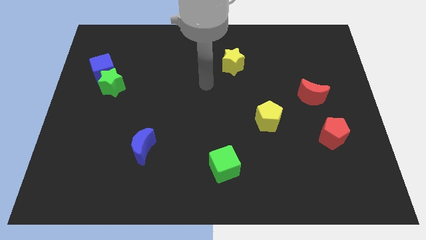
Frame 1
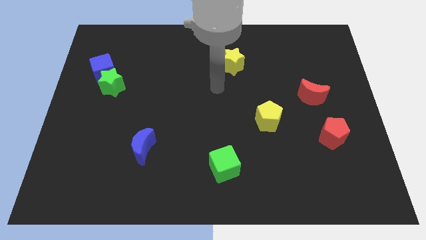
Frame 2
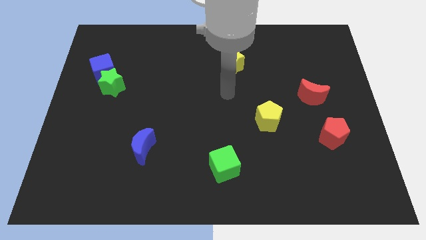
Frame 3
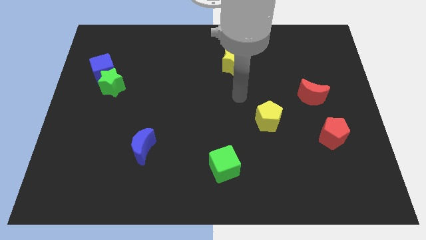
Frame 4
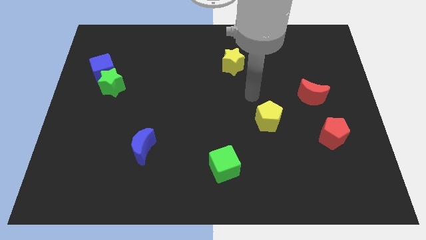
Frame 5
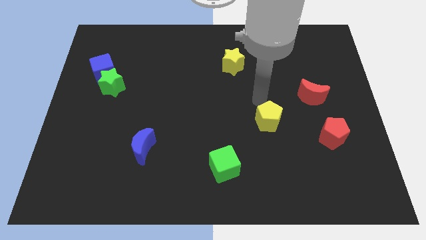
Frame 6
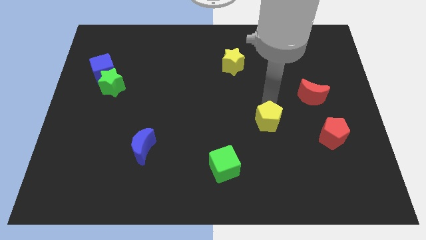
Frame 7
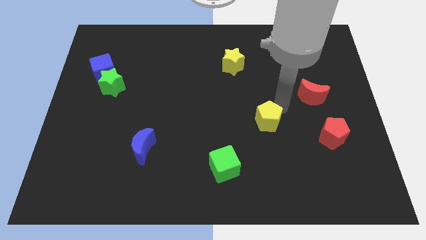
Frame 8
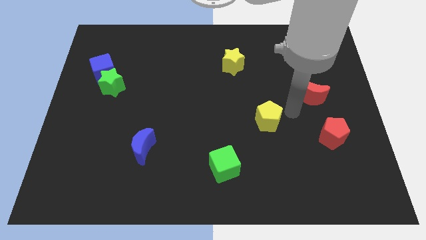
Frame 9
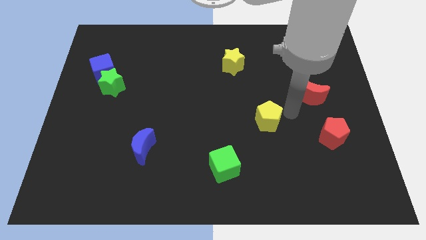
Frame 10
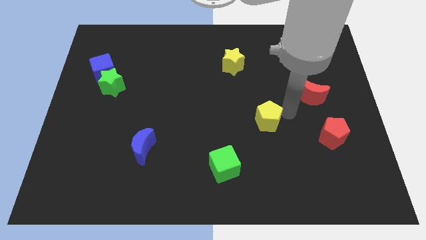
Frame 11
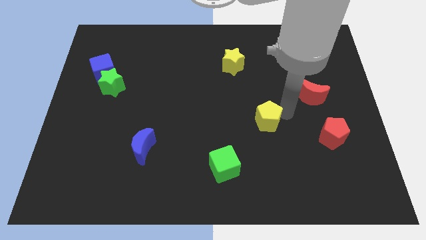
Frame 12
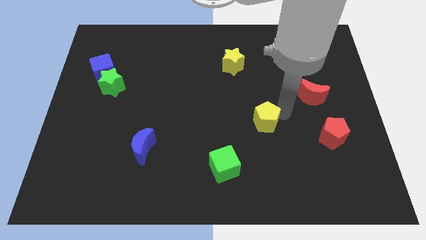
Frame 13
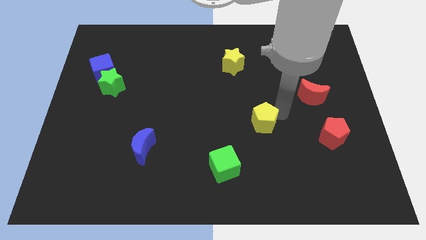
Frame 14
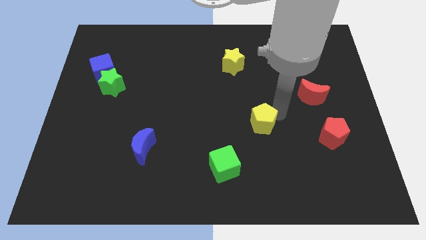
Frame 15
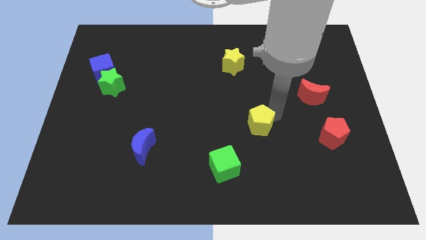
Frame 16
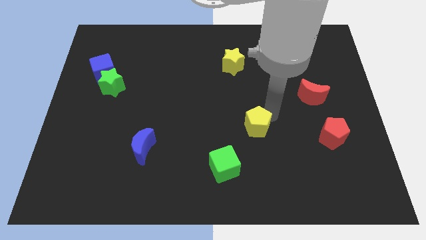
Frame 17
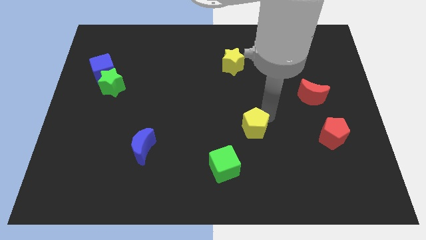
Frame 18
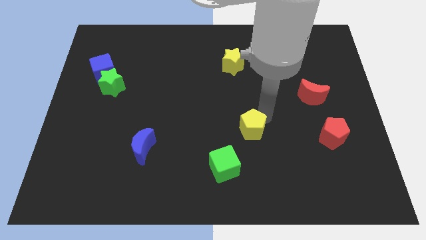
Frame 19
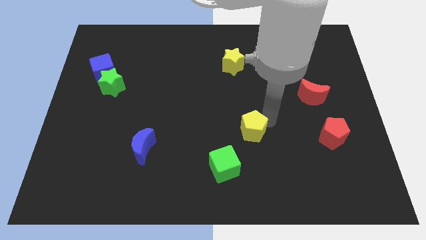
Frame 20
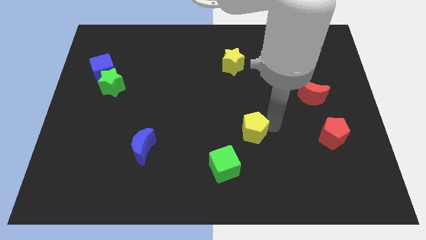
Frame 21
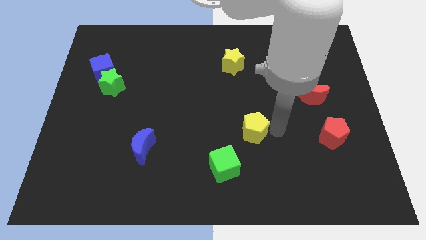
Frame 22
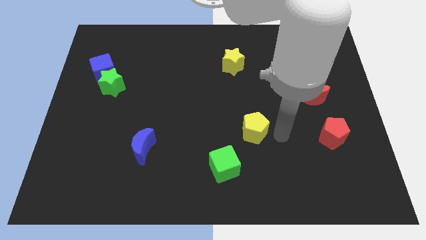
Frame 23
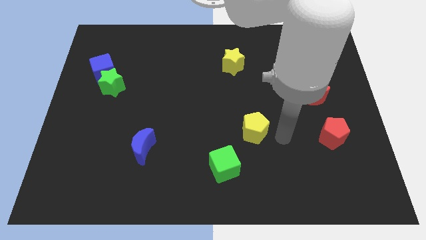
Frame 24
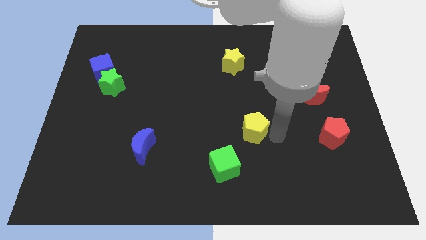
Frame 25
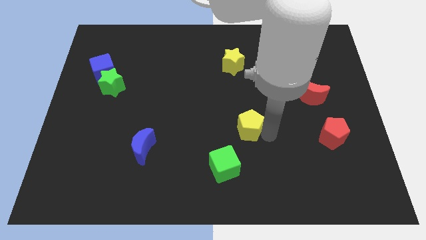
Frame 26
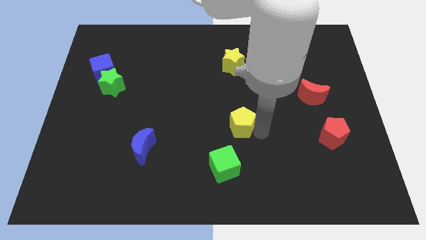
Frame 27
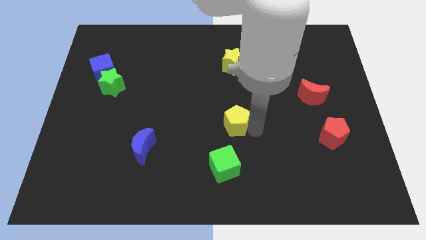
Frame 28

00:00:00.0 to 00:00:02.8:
push the yellow pentagon a little left

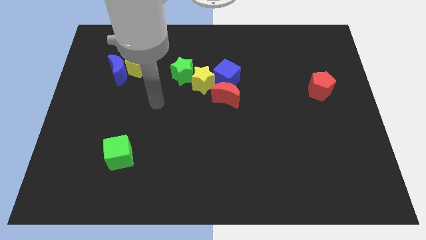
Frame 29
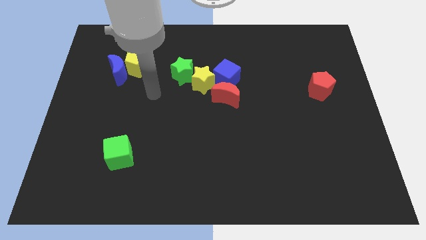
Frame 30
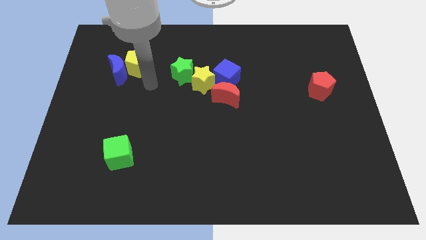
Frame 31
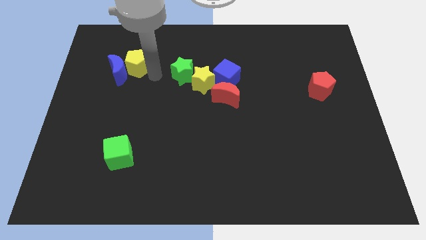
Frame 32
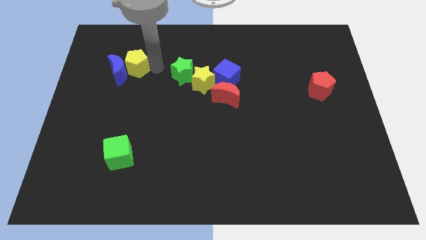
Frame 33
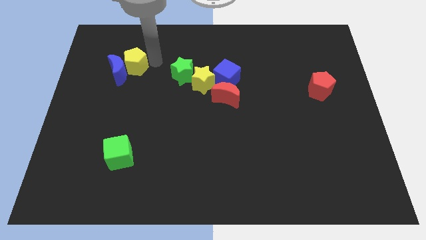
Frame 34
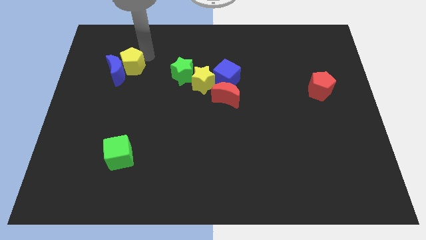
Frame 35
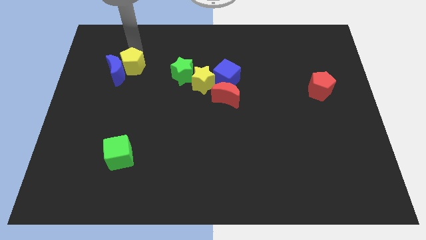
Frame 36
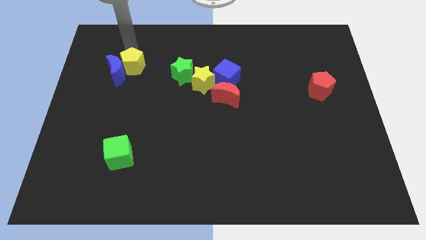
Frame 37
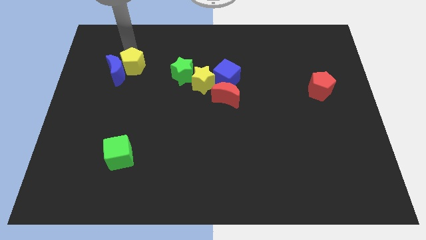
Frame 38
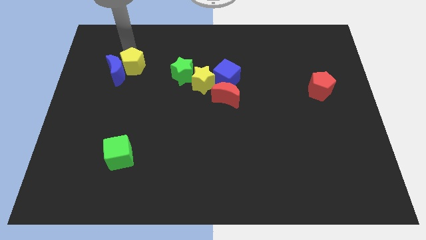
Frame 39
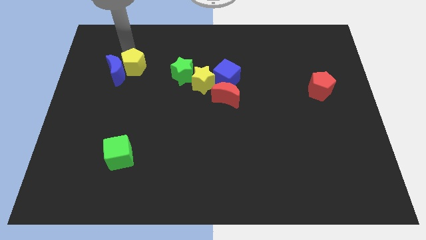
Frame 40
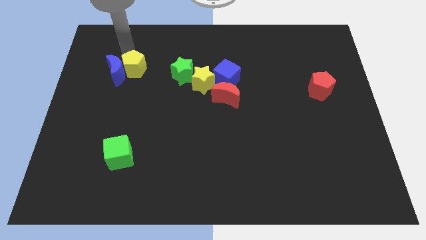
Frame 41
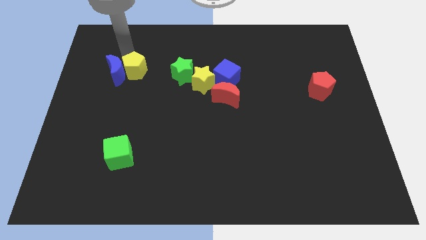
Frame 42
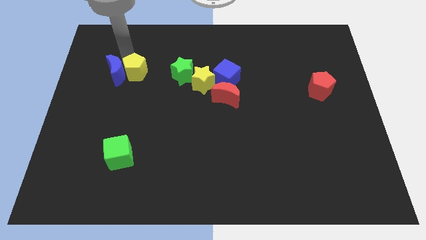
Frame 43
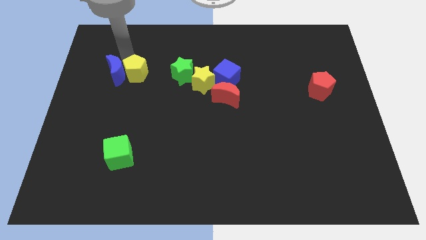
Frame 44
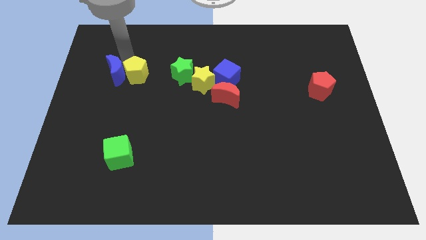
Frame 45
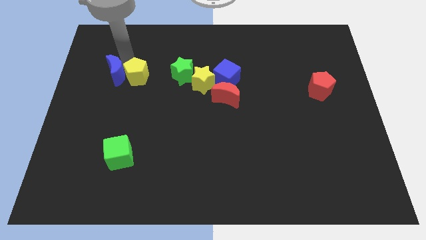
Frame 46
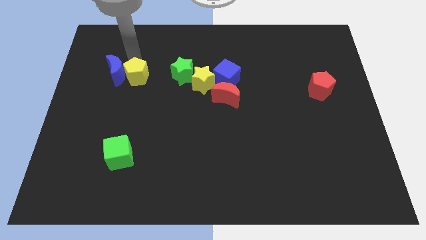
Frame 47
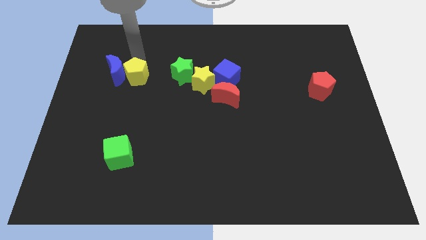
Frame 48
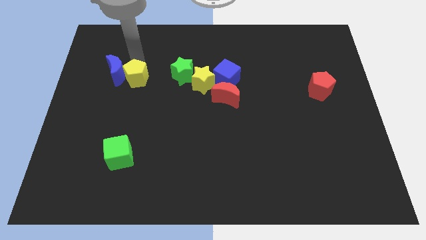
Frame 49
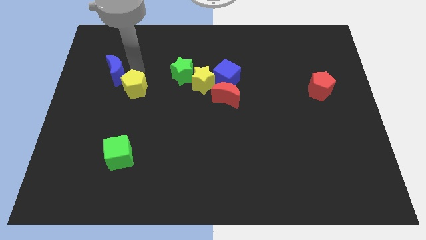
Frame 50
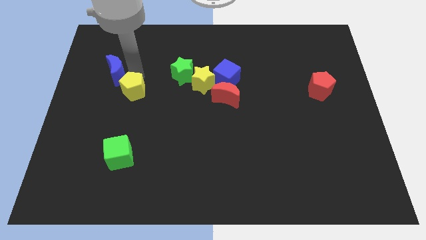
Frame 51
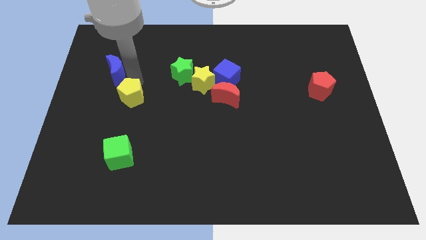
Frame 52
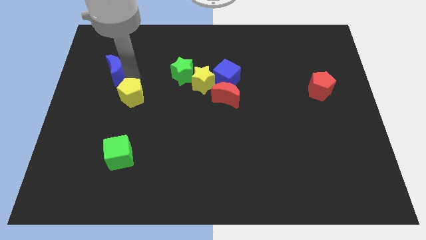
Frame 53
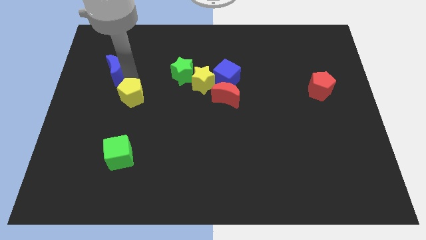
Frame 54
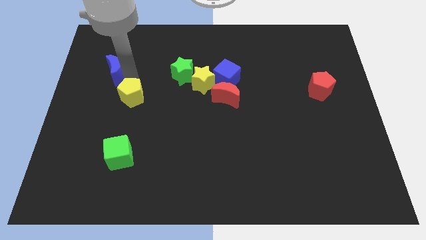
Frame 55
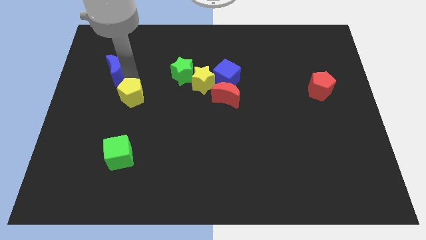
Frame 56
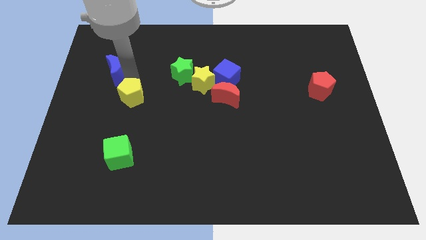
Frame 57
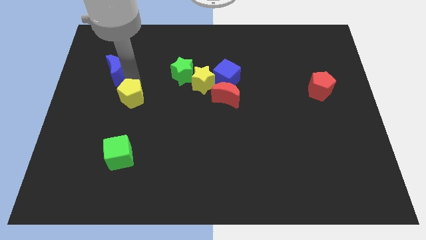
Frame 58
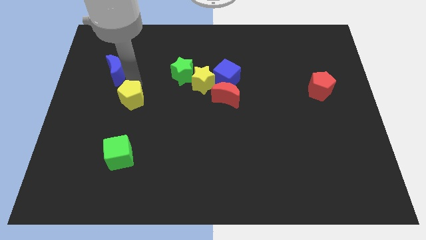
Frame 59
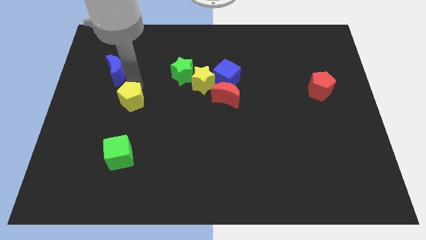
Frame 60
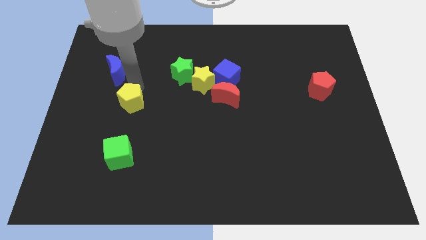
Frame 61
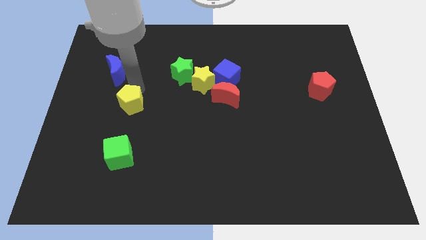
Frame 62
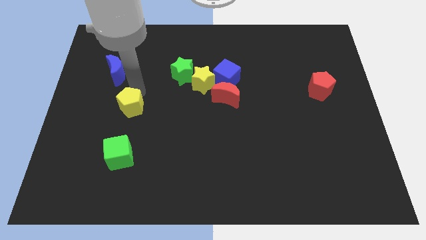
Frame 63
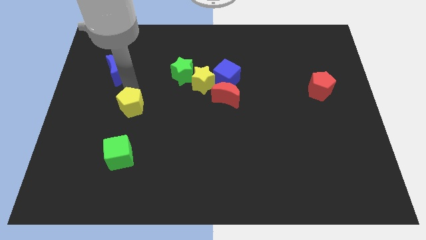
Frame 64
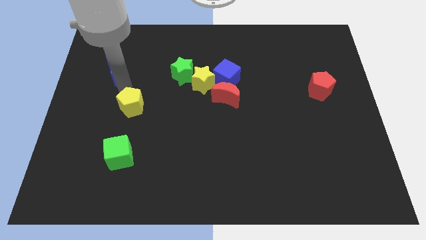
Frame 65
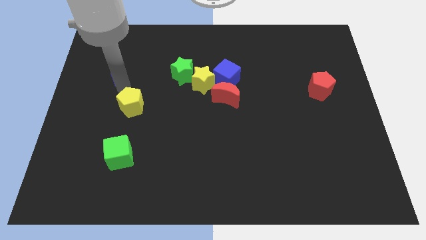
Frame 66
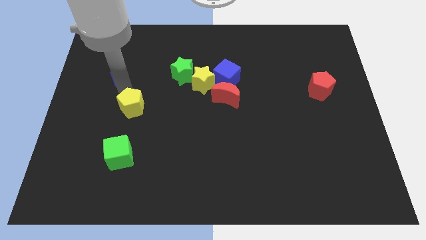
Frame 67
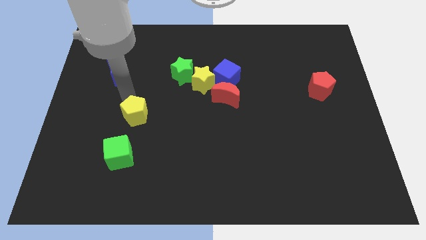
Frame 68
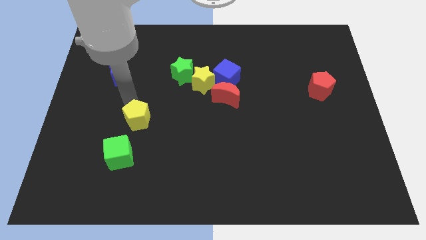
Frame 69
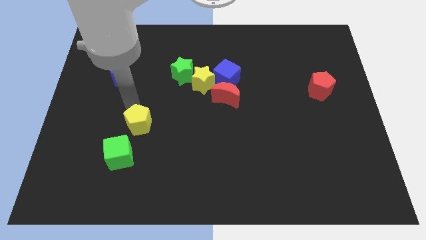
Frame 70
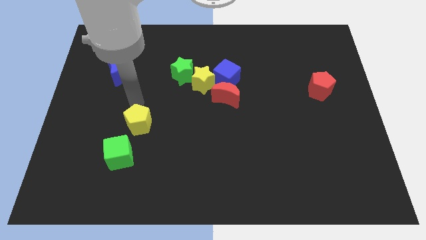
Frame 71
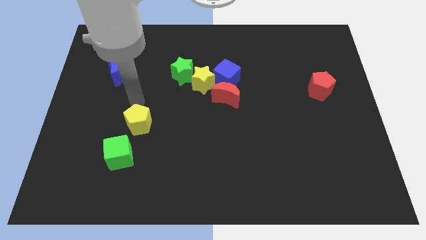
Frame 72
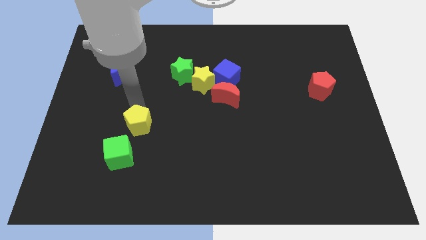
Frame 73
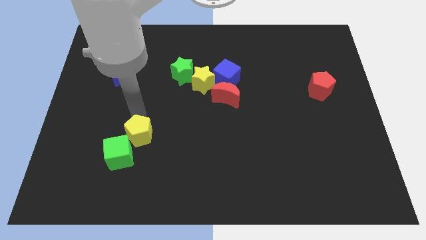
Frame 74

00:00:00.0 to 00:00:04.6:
push the yellow pentagon downwards

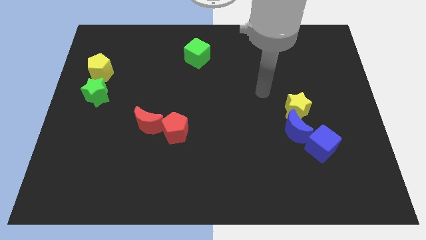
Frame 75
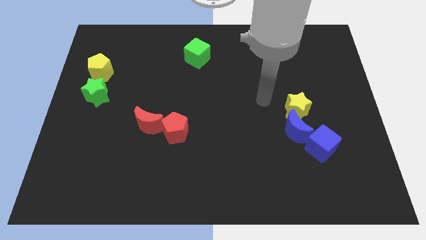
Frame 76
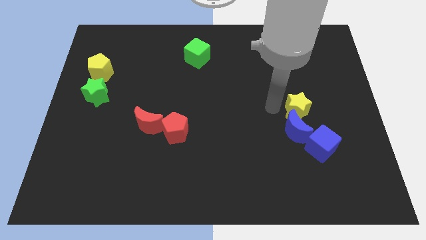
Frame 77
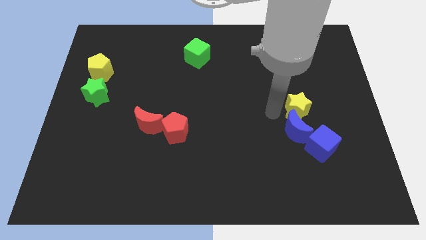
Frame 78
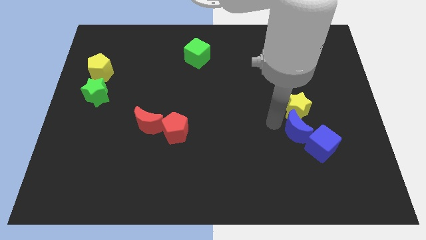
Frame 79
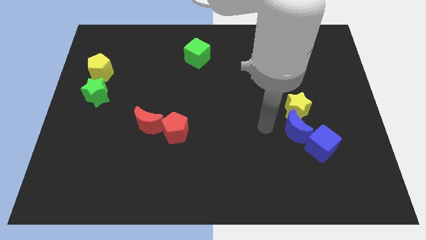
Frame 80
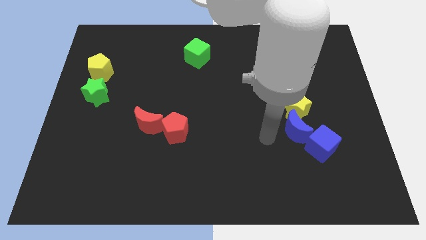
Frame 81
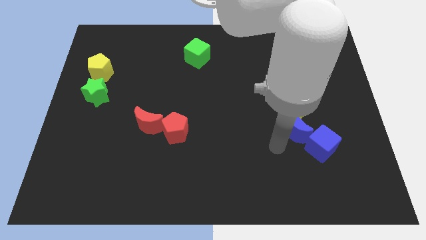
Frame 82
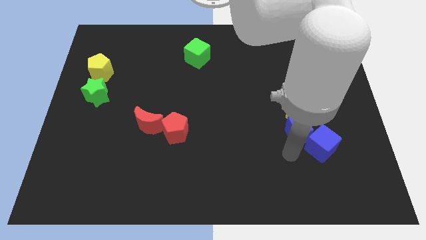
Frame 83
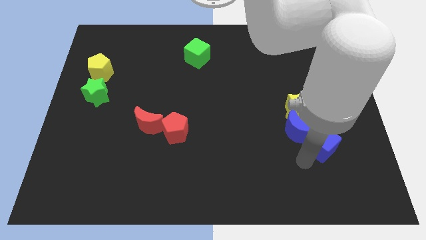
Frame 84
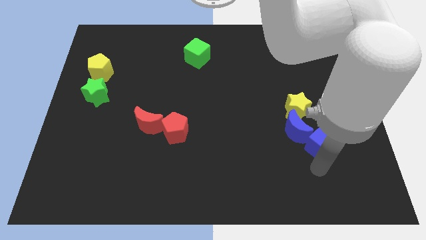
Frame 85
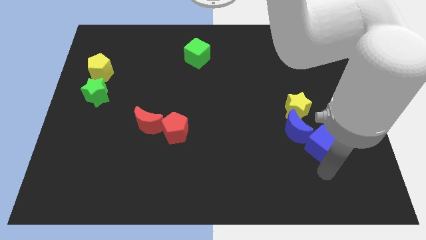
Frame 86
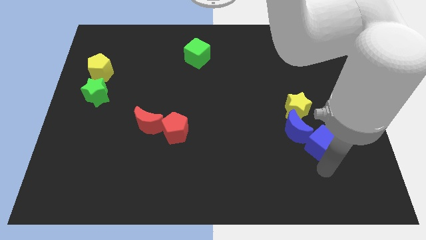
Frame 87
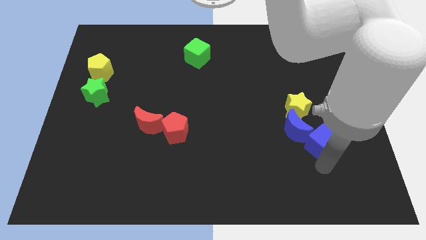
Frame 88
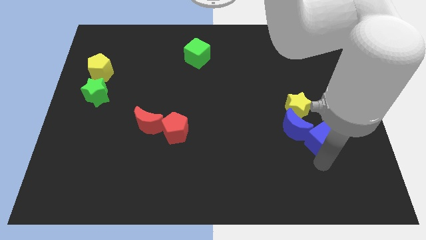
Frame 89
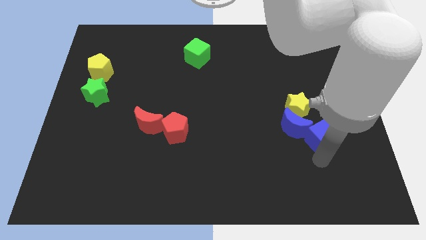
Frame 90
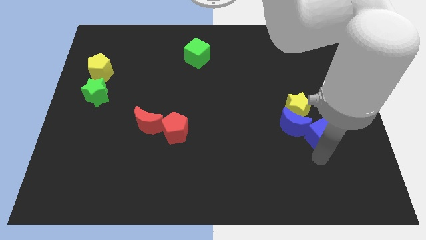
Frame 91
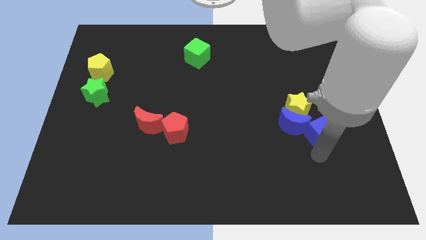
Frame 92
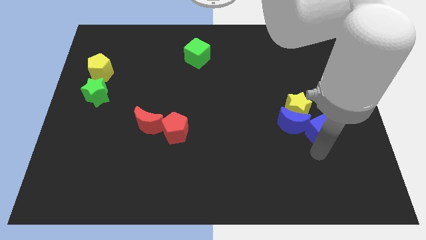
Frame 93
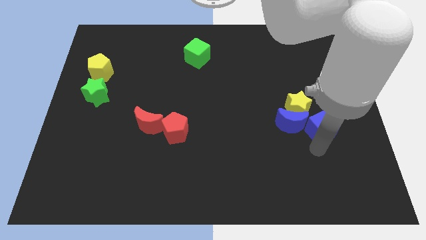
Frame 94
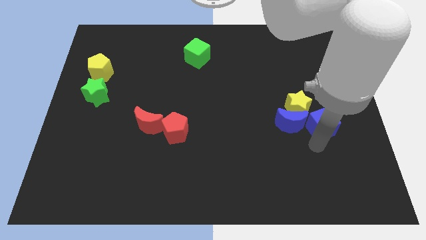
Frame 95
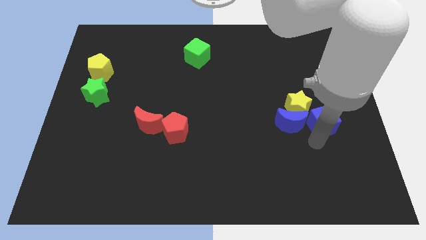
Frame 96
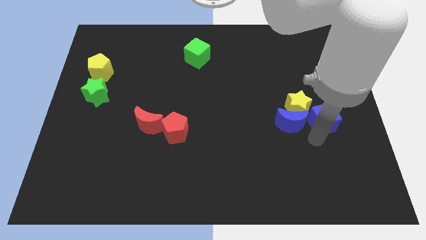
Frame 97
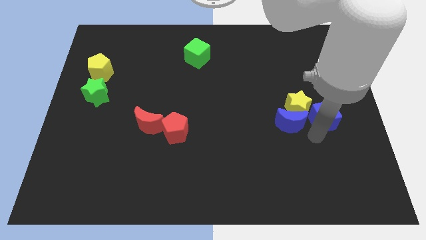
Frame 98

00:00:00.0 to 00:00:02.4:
slightly move the blue cube up
